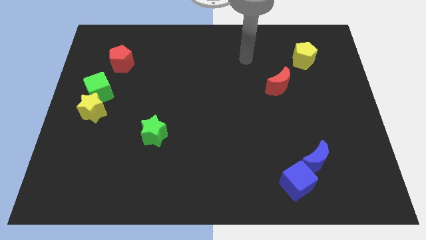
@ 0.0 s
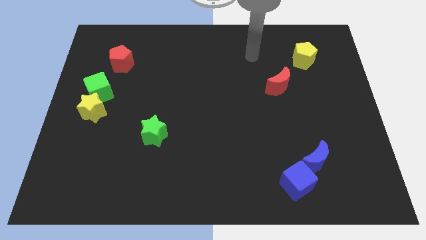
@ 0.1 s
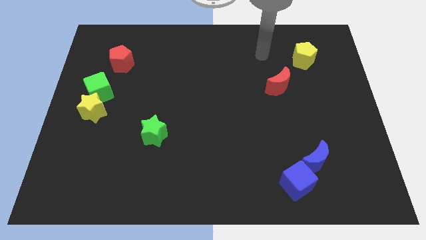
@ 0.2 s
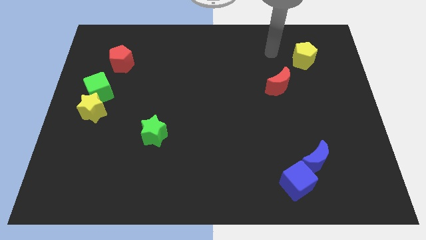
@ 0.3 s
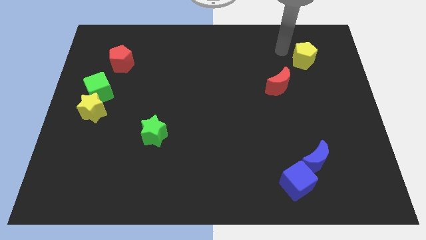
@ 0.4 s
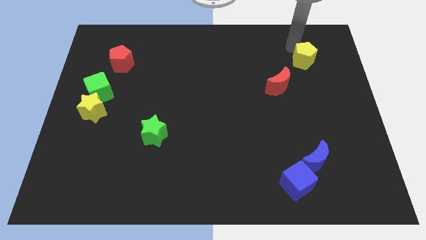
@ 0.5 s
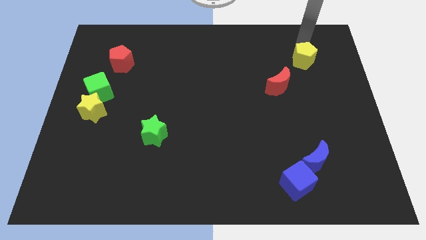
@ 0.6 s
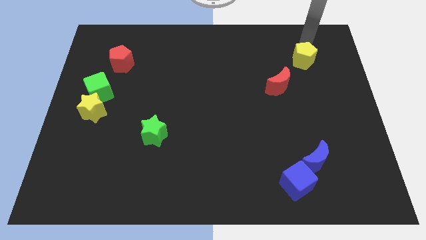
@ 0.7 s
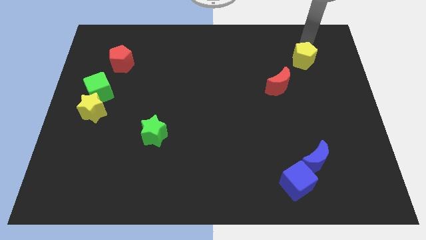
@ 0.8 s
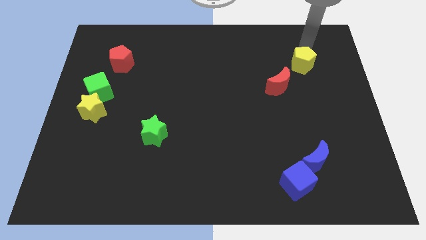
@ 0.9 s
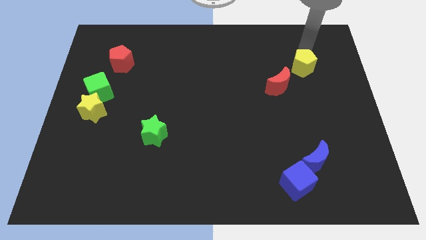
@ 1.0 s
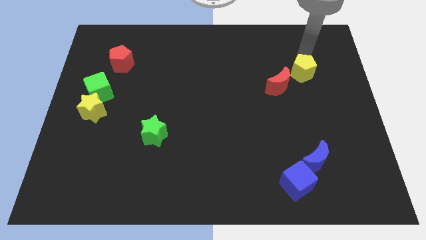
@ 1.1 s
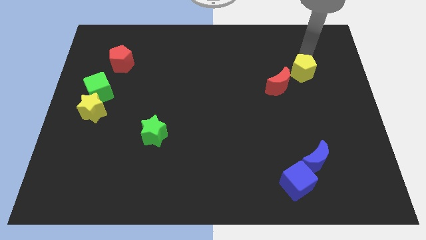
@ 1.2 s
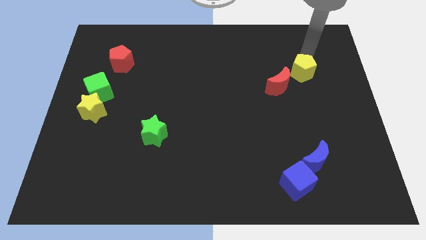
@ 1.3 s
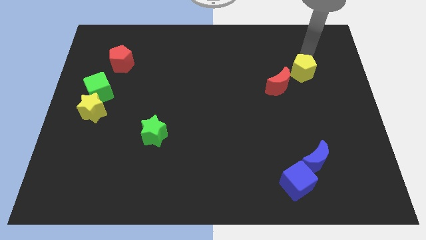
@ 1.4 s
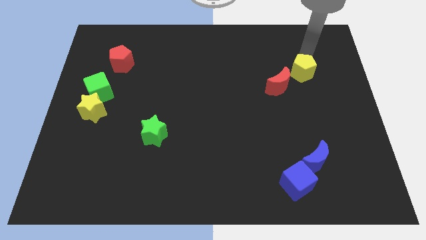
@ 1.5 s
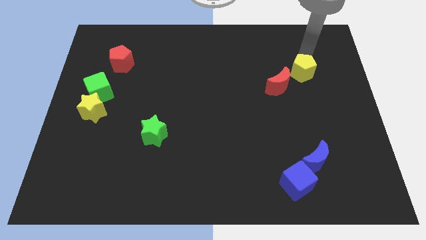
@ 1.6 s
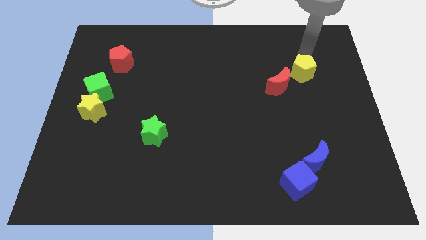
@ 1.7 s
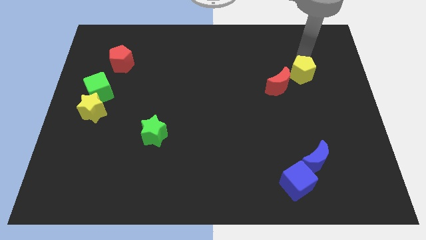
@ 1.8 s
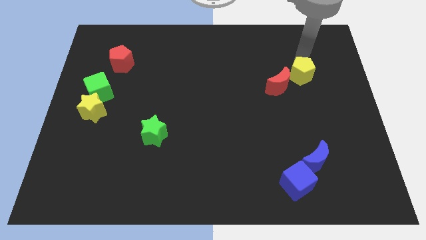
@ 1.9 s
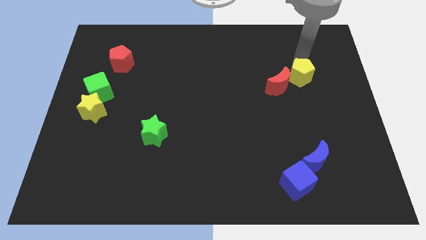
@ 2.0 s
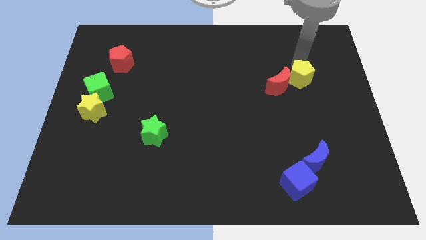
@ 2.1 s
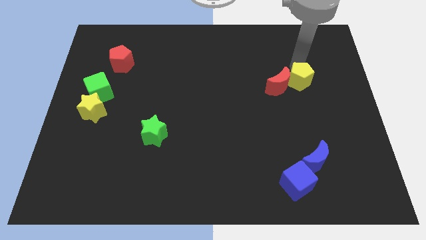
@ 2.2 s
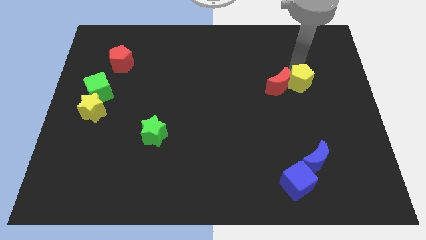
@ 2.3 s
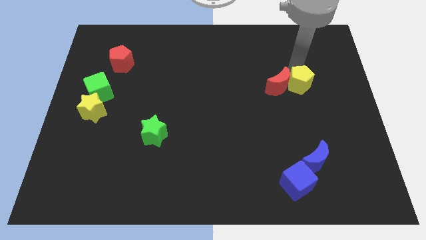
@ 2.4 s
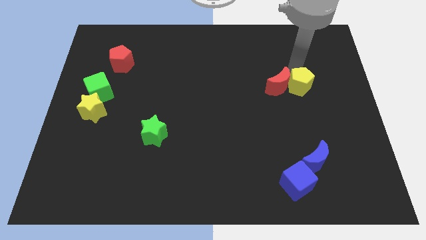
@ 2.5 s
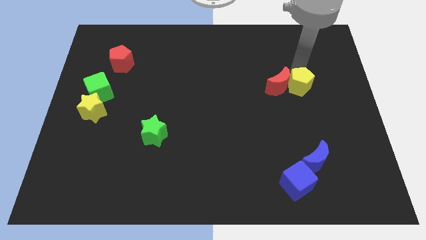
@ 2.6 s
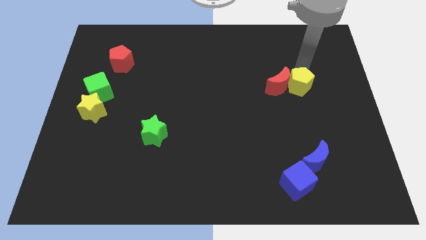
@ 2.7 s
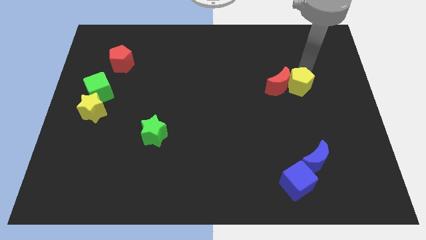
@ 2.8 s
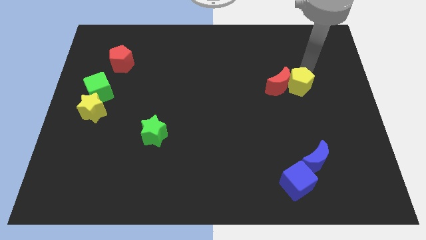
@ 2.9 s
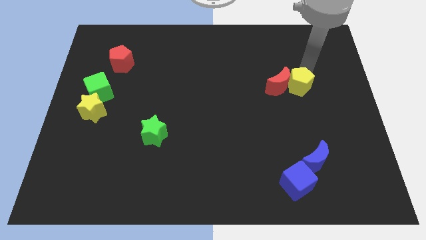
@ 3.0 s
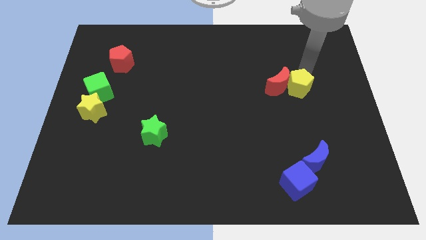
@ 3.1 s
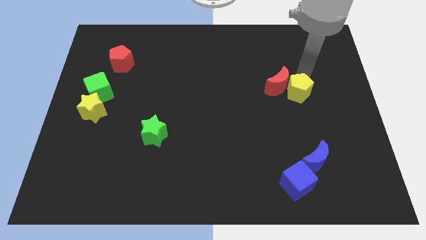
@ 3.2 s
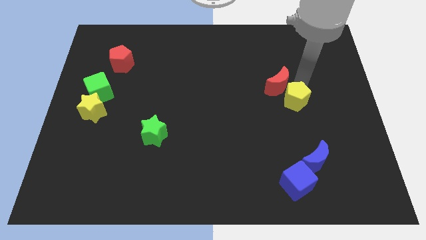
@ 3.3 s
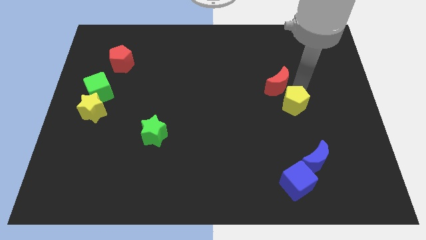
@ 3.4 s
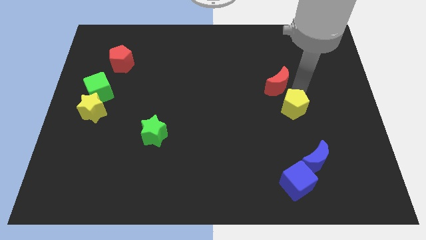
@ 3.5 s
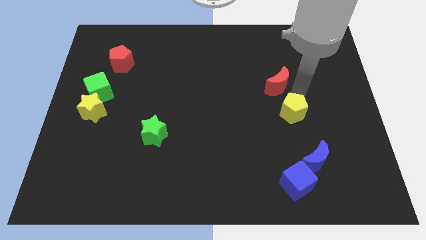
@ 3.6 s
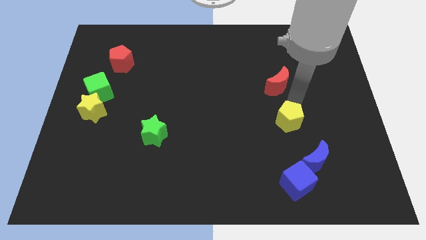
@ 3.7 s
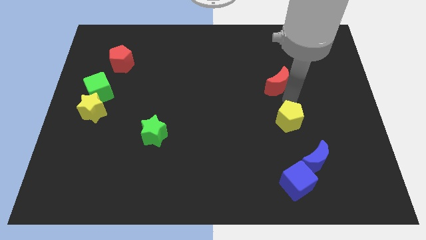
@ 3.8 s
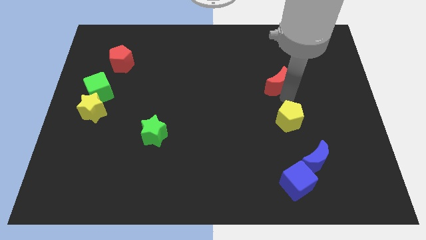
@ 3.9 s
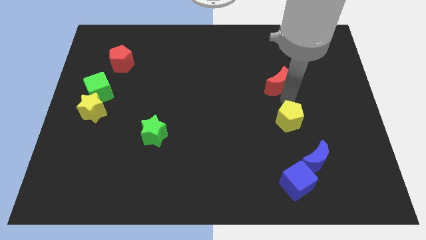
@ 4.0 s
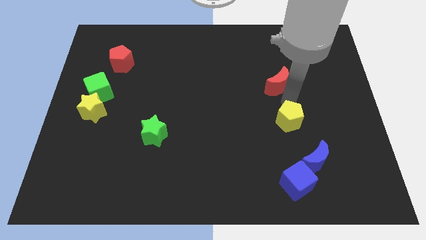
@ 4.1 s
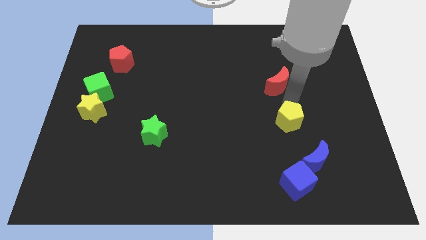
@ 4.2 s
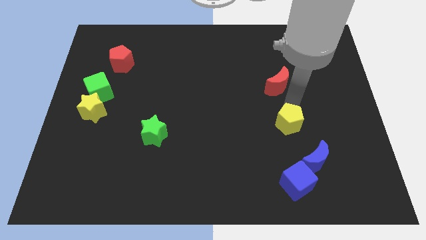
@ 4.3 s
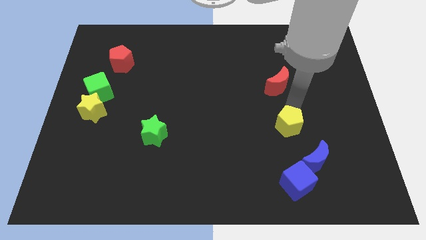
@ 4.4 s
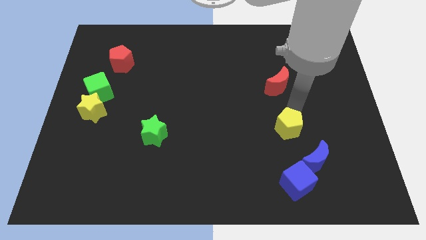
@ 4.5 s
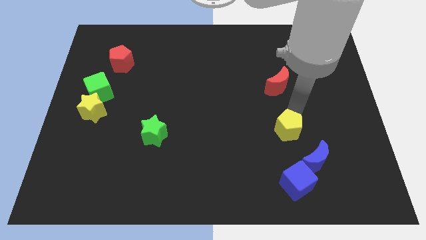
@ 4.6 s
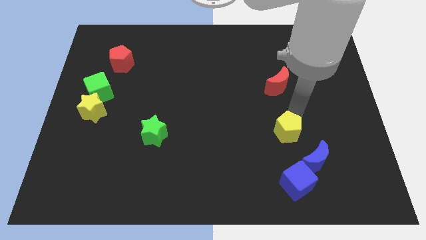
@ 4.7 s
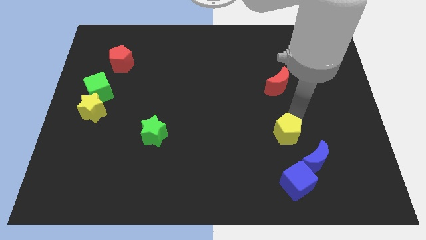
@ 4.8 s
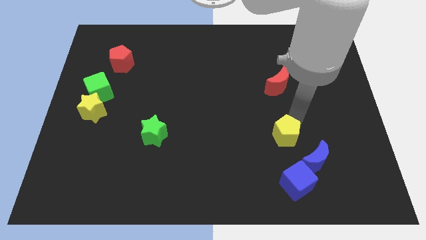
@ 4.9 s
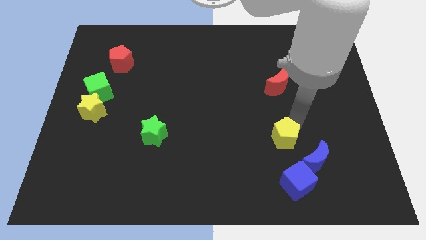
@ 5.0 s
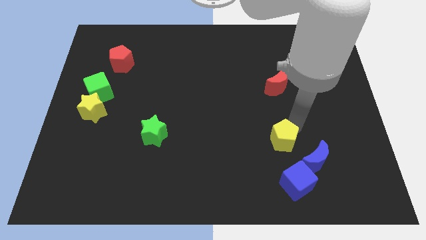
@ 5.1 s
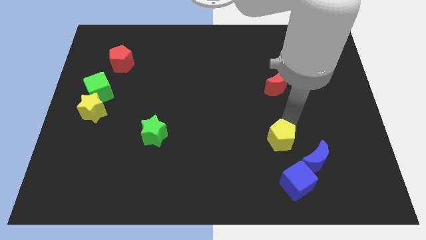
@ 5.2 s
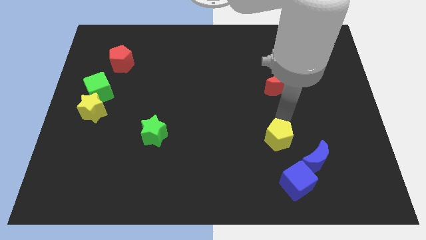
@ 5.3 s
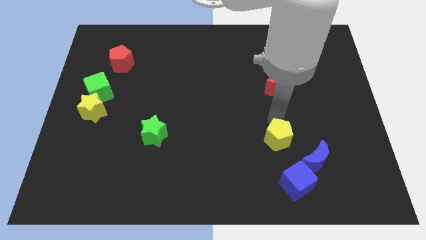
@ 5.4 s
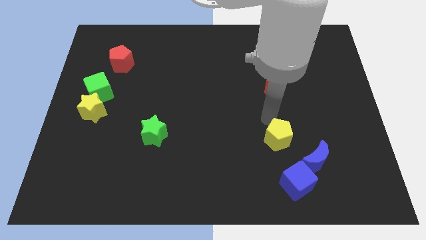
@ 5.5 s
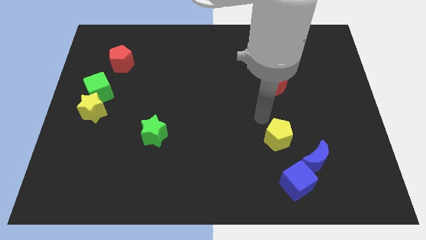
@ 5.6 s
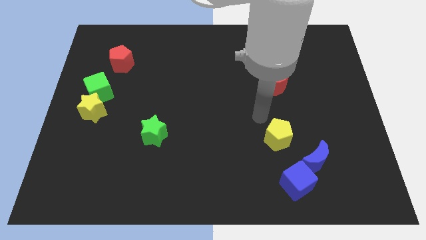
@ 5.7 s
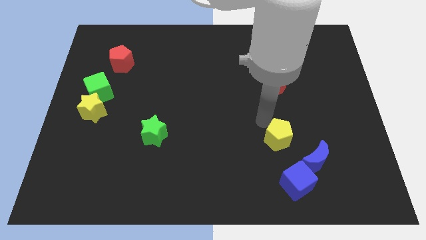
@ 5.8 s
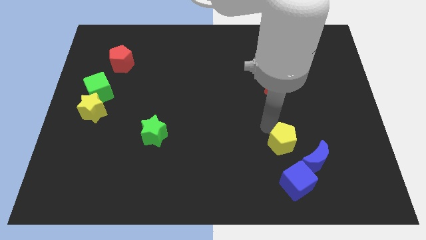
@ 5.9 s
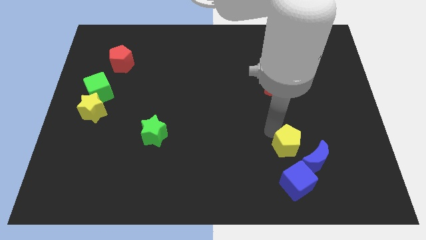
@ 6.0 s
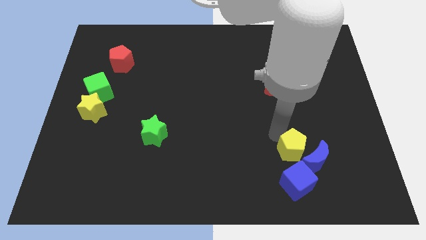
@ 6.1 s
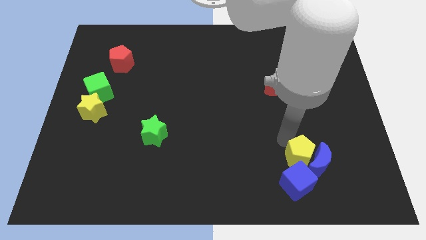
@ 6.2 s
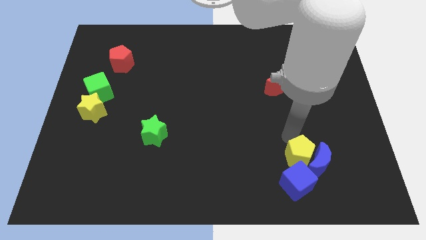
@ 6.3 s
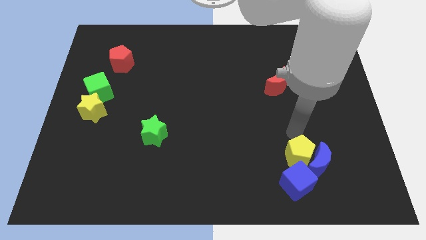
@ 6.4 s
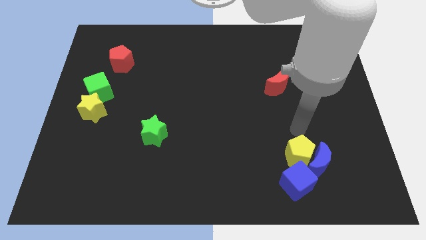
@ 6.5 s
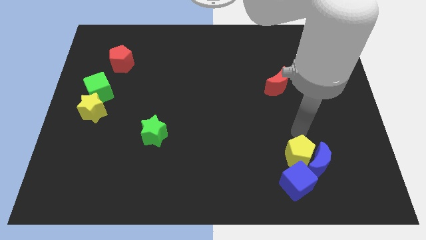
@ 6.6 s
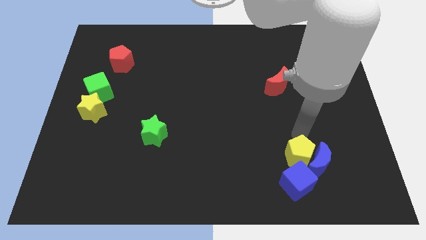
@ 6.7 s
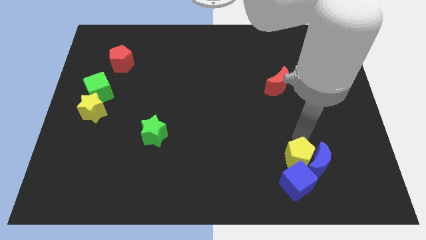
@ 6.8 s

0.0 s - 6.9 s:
put the yellow pentagon to the blue cube

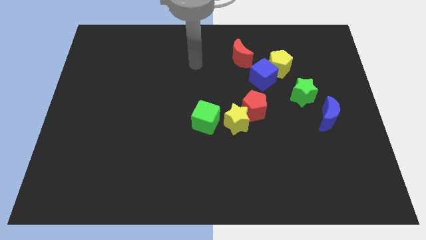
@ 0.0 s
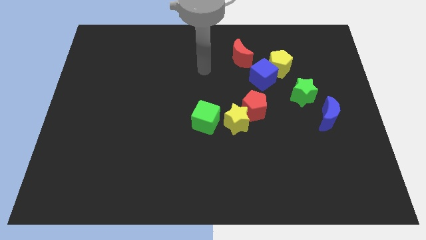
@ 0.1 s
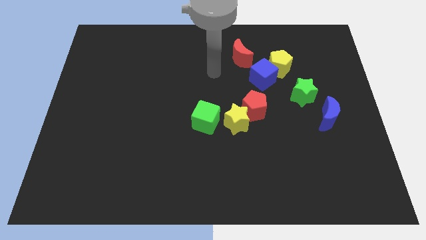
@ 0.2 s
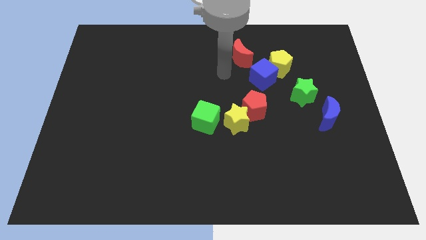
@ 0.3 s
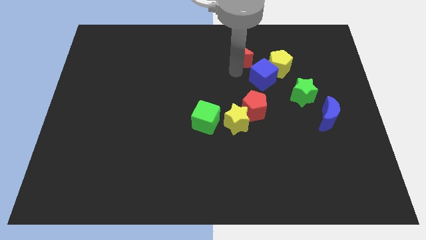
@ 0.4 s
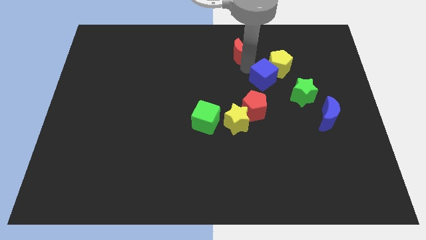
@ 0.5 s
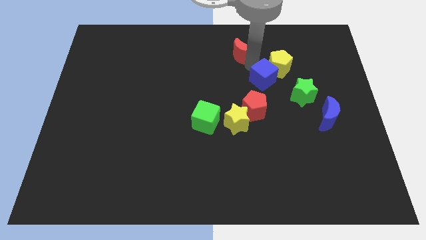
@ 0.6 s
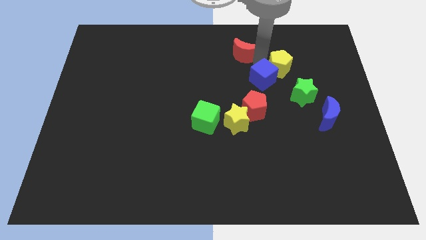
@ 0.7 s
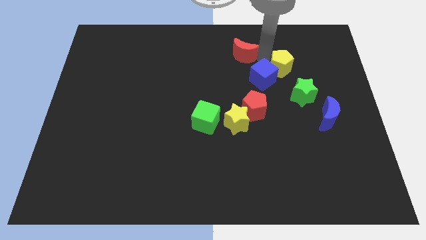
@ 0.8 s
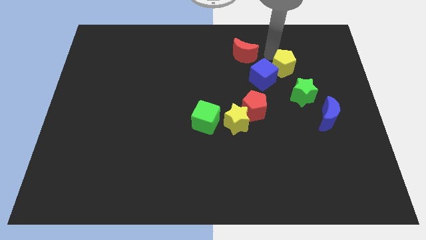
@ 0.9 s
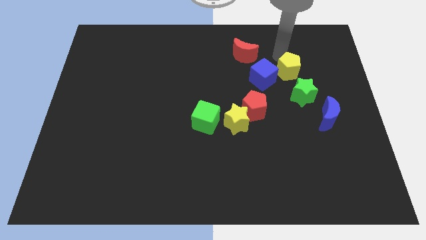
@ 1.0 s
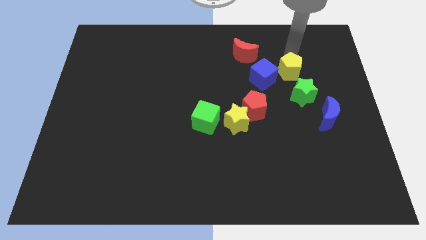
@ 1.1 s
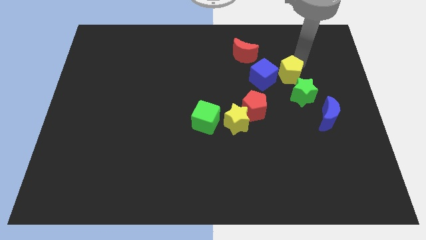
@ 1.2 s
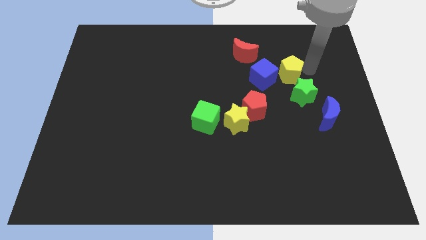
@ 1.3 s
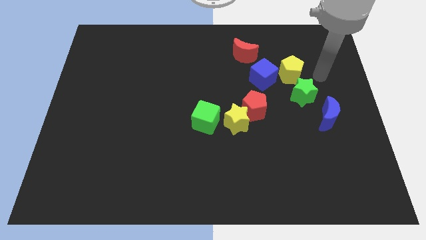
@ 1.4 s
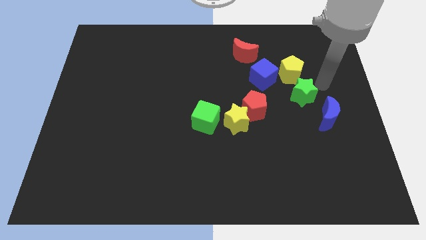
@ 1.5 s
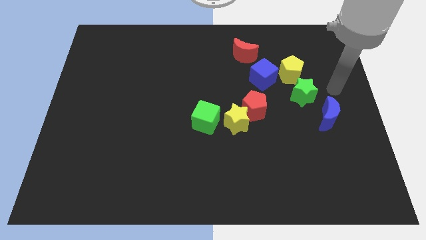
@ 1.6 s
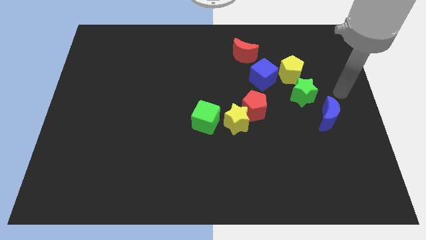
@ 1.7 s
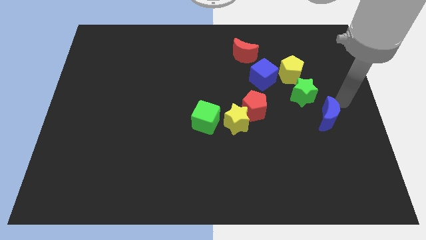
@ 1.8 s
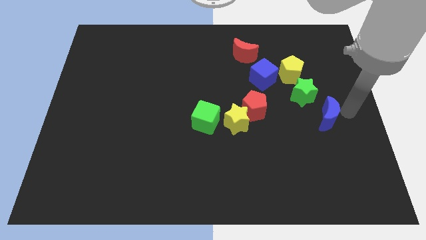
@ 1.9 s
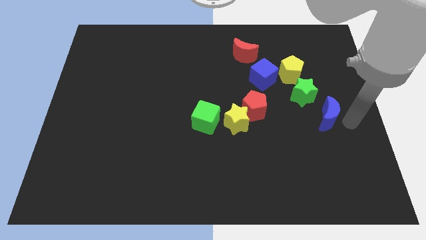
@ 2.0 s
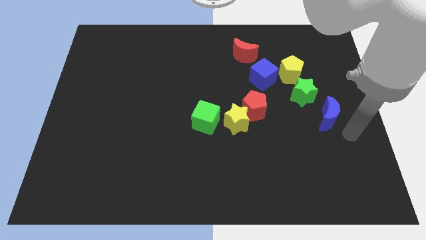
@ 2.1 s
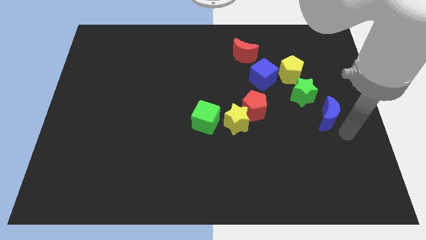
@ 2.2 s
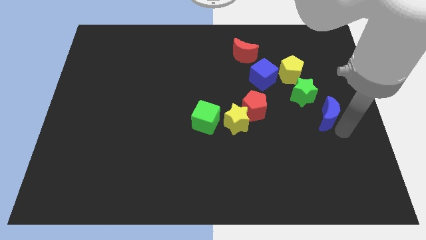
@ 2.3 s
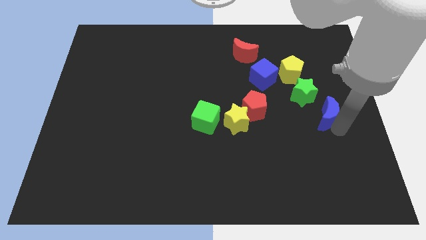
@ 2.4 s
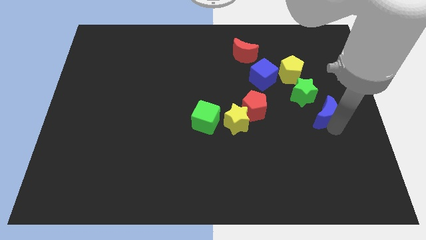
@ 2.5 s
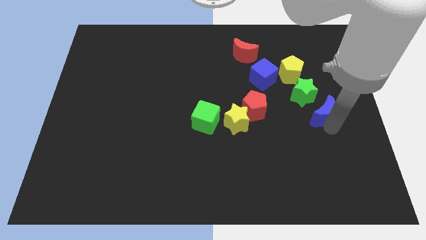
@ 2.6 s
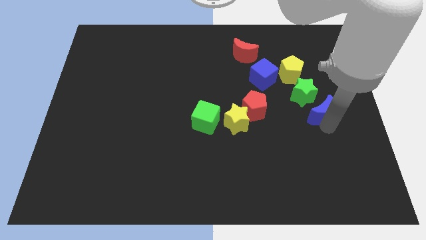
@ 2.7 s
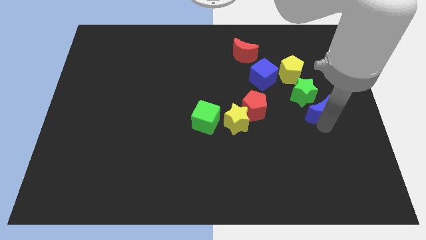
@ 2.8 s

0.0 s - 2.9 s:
push the blue moon to the green star
